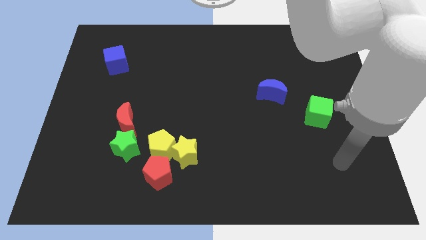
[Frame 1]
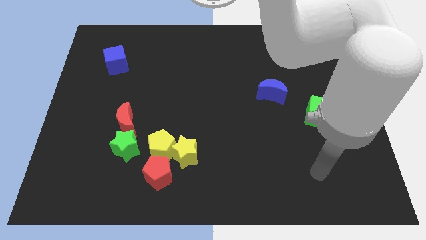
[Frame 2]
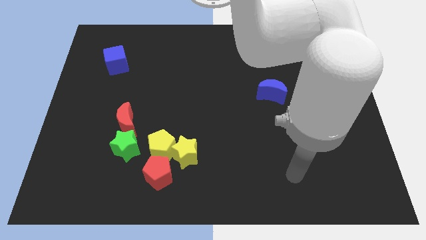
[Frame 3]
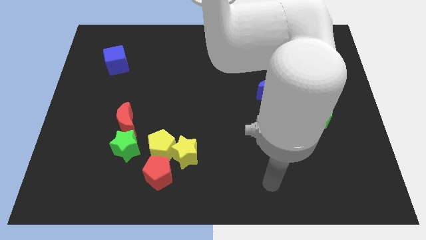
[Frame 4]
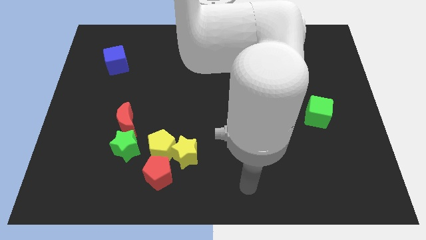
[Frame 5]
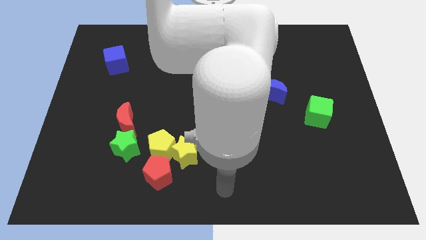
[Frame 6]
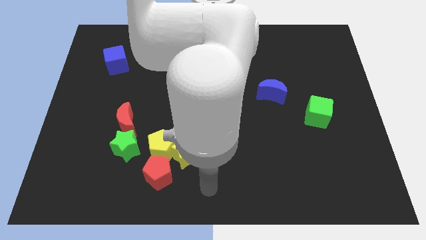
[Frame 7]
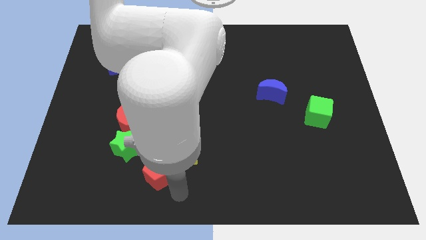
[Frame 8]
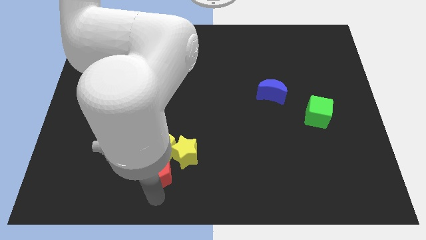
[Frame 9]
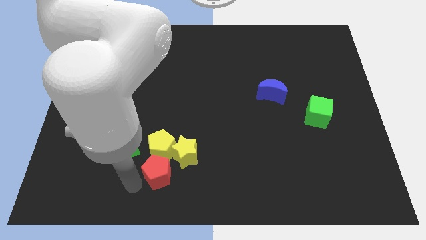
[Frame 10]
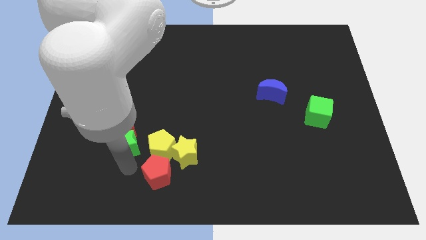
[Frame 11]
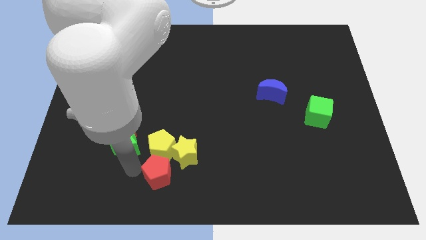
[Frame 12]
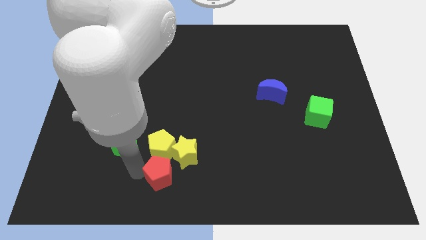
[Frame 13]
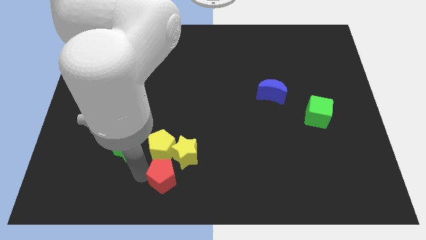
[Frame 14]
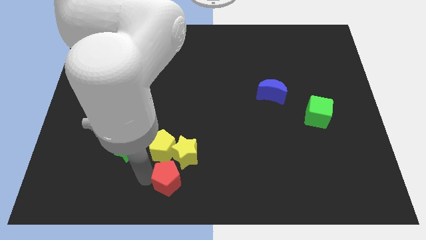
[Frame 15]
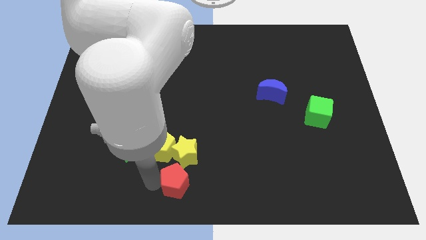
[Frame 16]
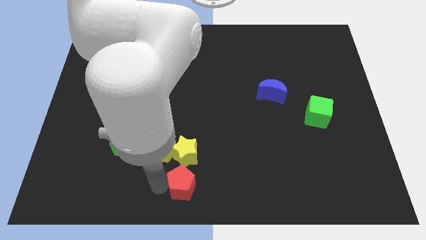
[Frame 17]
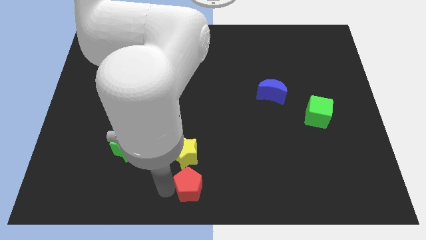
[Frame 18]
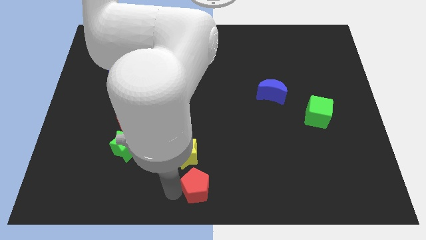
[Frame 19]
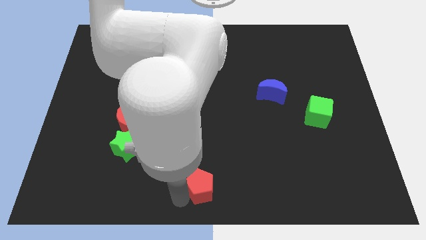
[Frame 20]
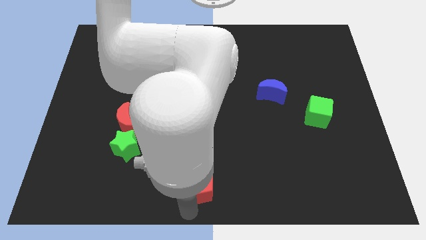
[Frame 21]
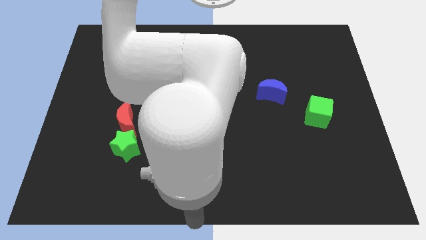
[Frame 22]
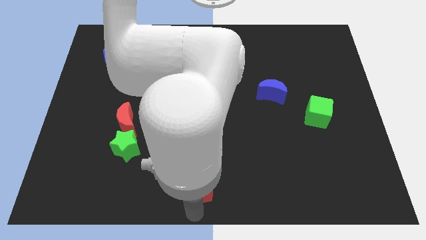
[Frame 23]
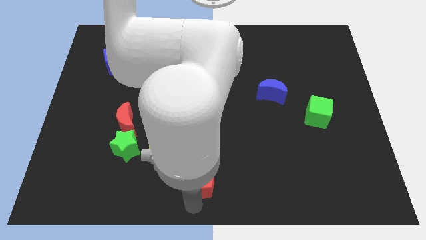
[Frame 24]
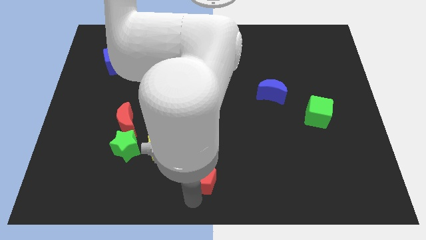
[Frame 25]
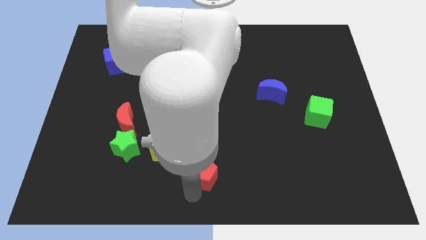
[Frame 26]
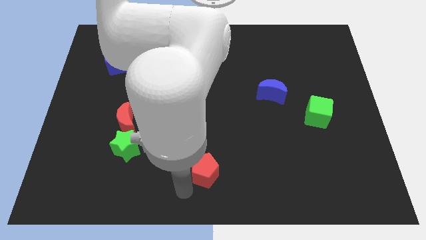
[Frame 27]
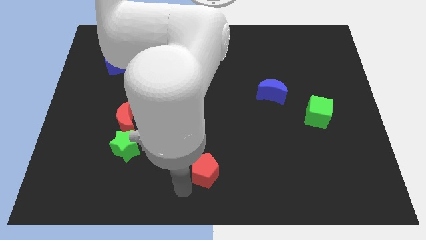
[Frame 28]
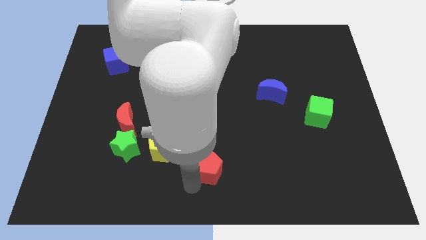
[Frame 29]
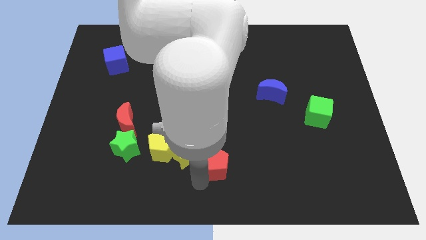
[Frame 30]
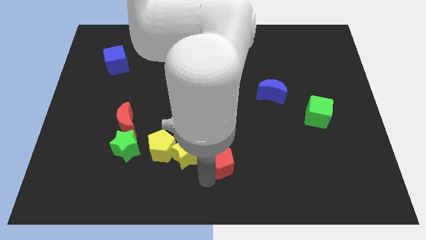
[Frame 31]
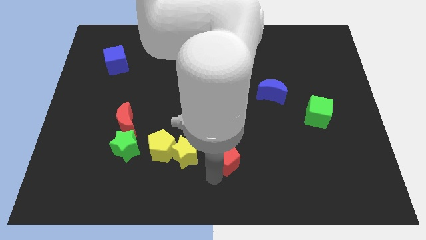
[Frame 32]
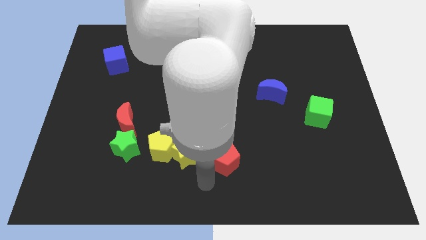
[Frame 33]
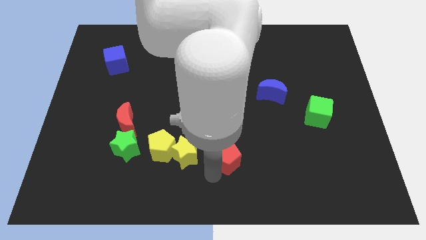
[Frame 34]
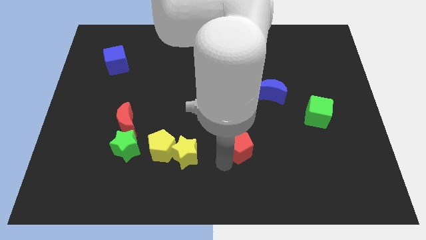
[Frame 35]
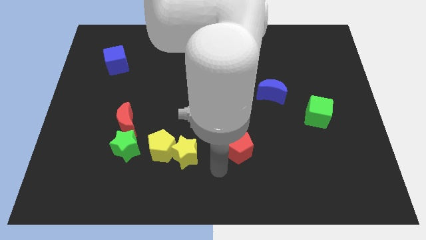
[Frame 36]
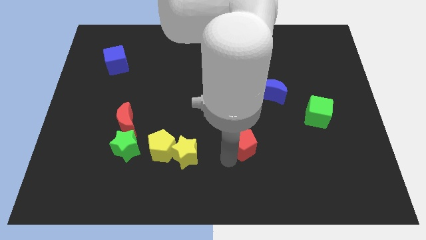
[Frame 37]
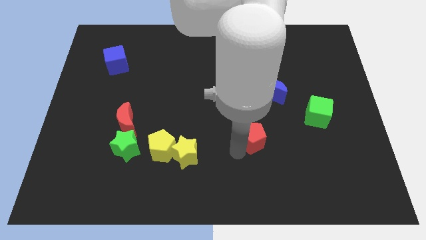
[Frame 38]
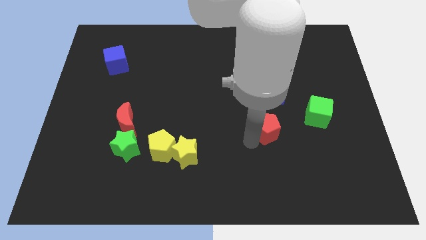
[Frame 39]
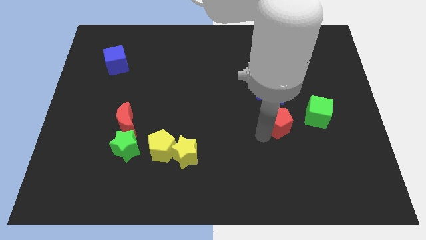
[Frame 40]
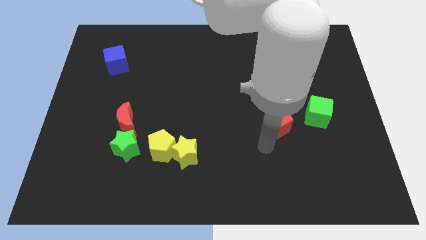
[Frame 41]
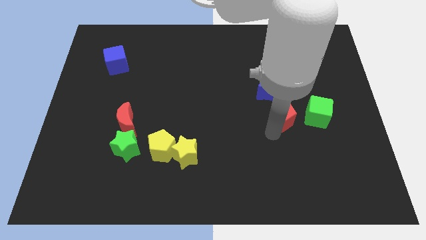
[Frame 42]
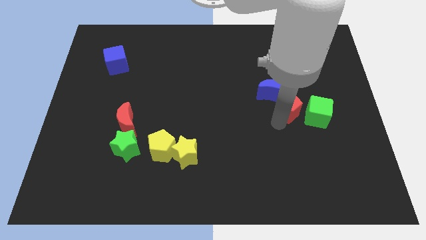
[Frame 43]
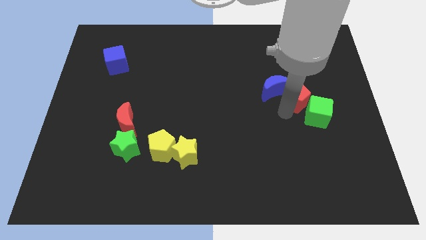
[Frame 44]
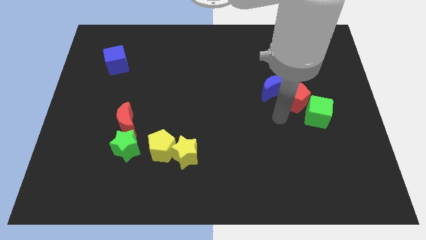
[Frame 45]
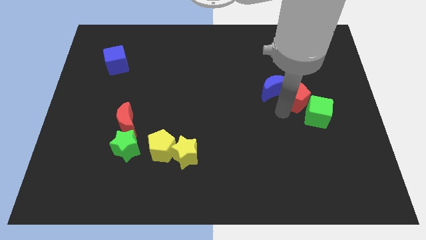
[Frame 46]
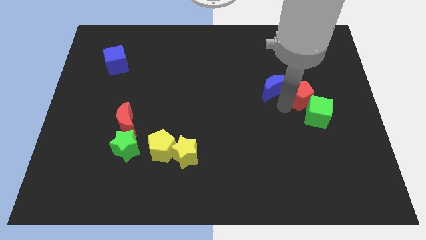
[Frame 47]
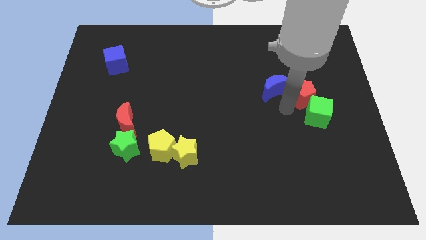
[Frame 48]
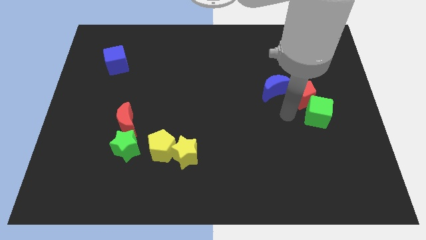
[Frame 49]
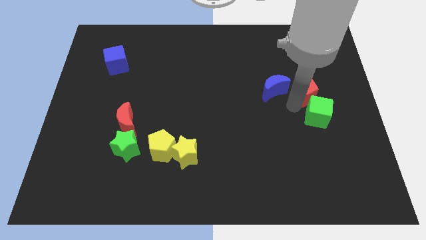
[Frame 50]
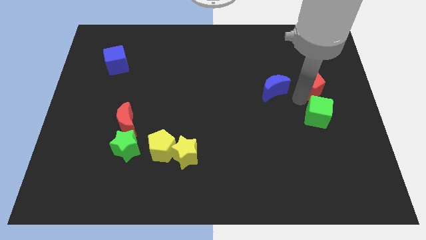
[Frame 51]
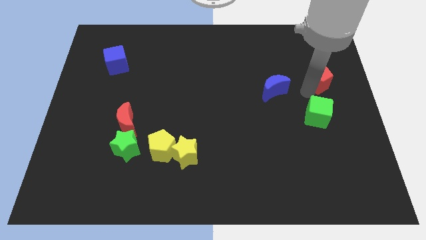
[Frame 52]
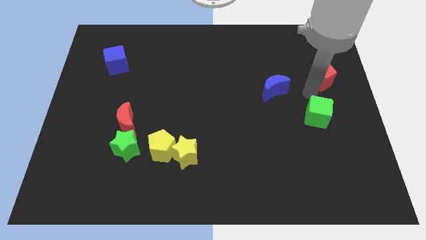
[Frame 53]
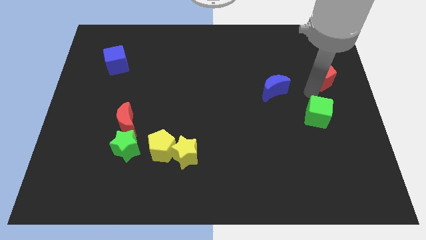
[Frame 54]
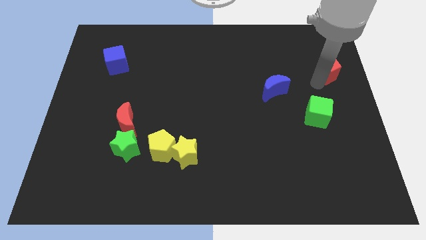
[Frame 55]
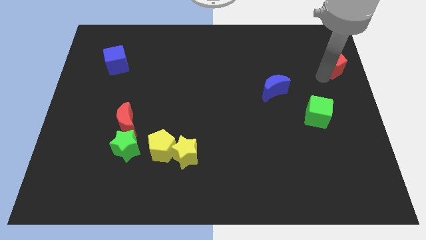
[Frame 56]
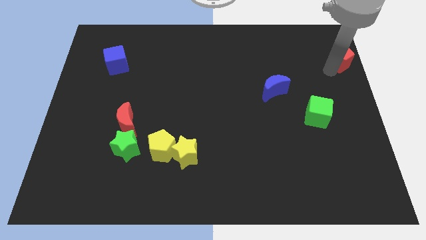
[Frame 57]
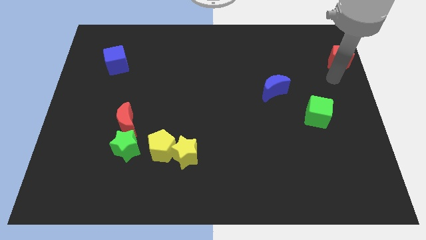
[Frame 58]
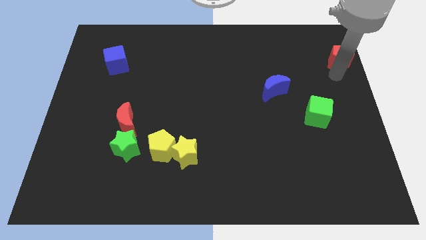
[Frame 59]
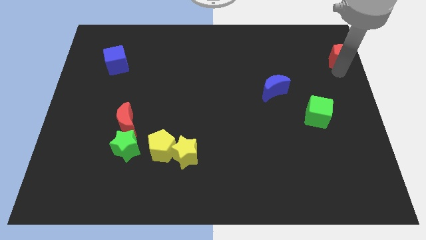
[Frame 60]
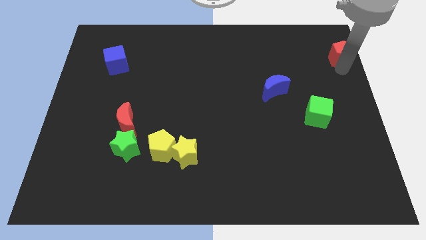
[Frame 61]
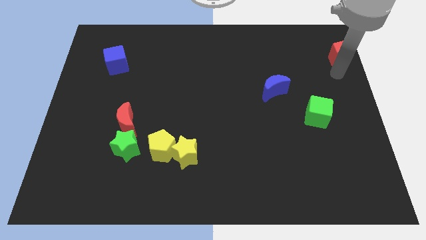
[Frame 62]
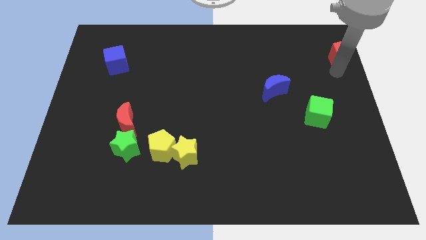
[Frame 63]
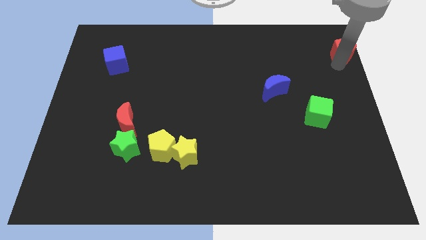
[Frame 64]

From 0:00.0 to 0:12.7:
slide the red pentagon to the upper right corner
